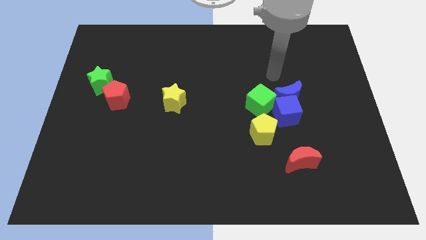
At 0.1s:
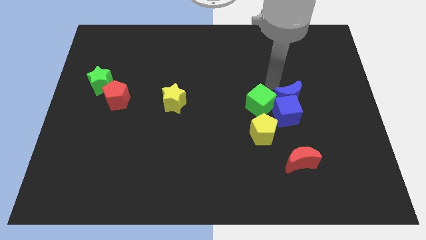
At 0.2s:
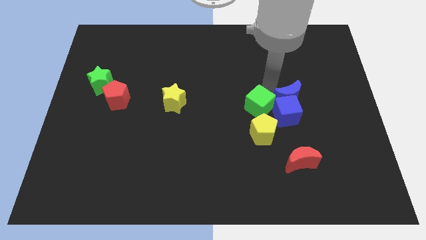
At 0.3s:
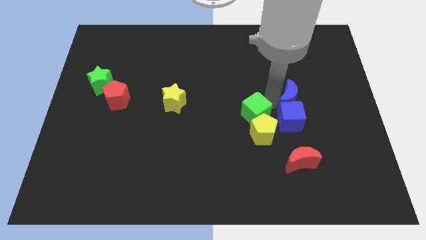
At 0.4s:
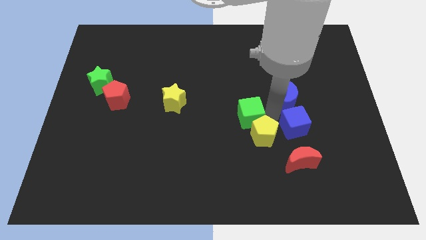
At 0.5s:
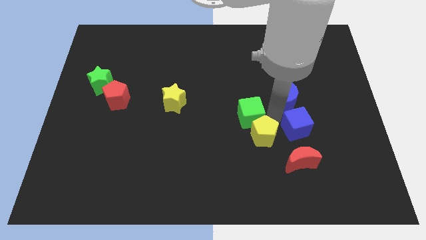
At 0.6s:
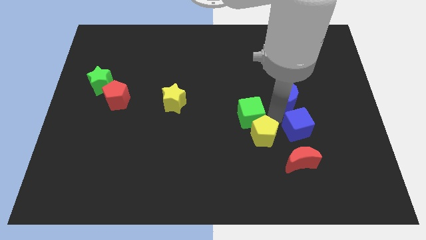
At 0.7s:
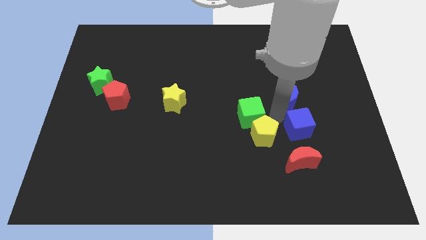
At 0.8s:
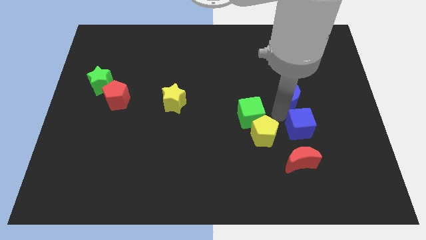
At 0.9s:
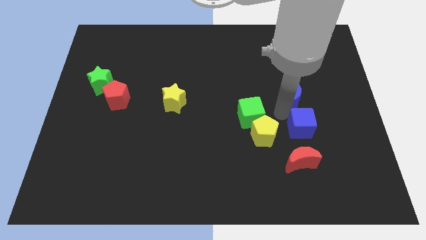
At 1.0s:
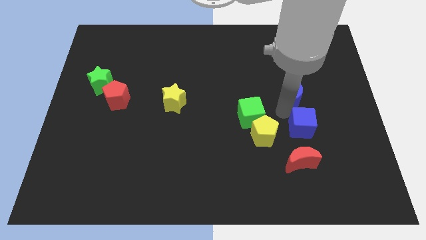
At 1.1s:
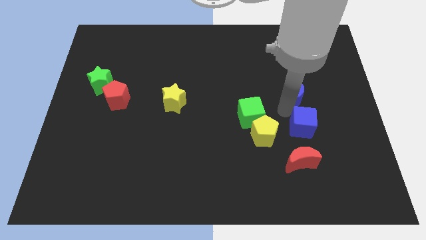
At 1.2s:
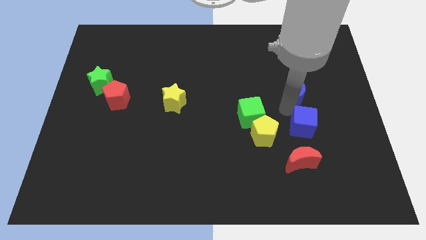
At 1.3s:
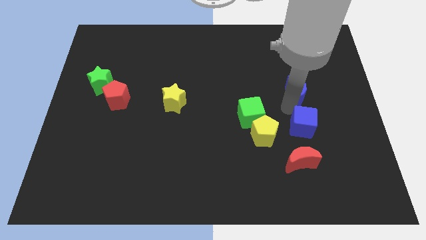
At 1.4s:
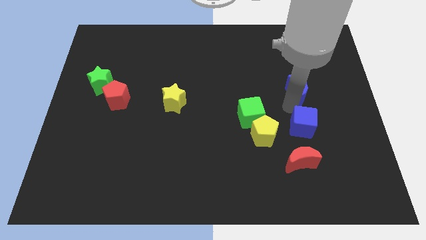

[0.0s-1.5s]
pull the blue moon apart from the blue cube and green cube

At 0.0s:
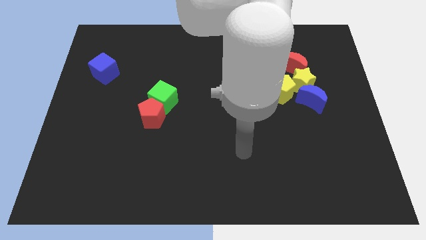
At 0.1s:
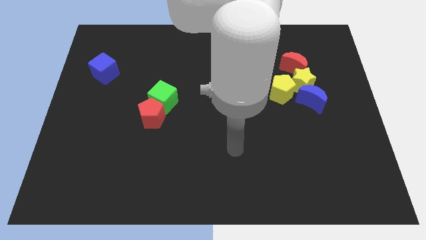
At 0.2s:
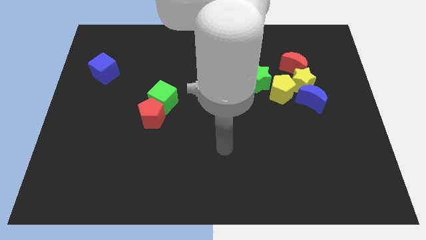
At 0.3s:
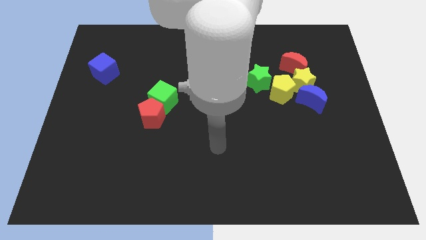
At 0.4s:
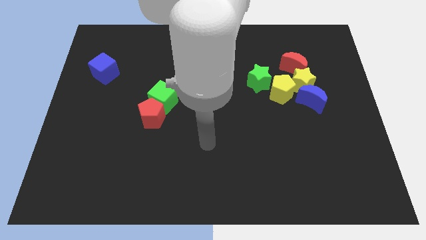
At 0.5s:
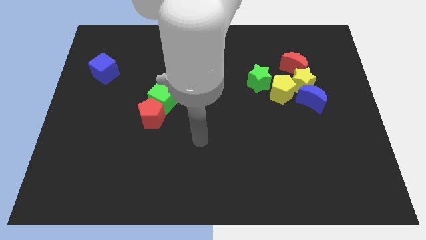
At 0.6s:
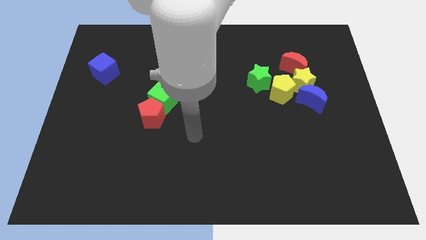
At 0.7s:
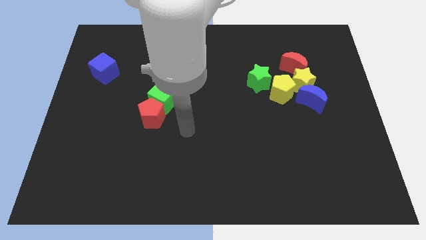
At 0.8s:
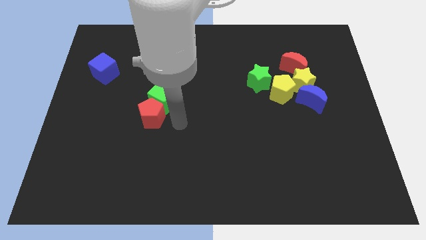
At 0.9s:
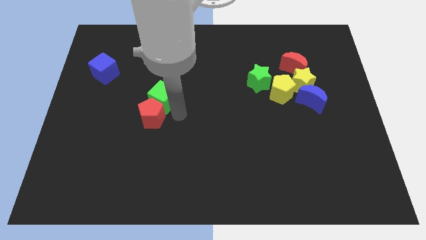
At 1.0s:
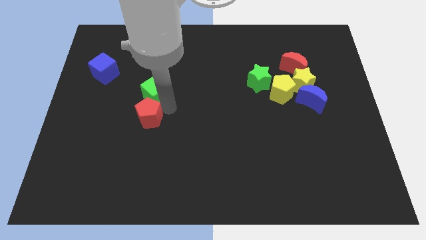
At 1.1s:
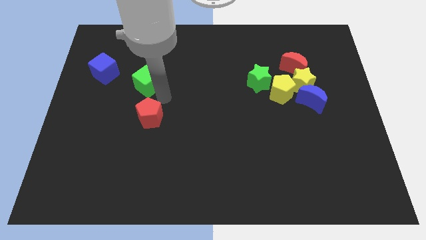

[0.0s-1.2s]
pull the red pentagon apart from the green cube

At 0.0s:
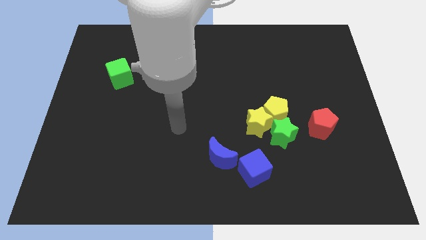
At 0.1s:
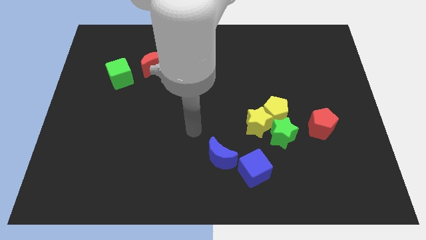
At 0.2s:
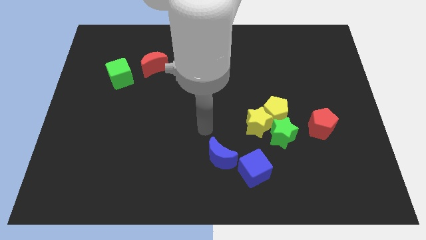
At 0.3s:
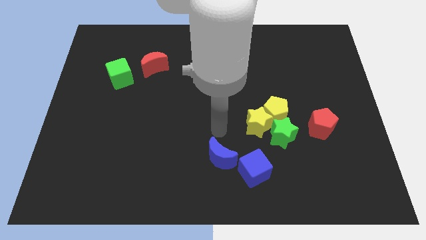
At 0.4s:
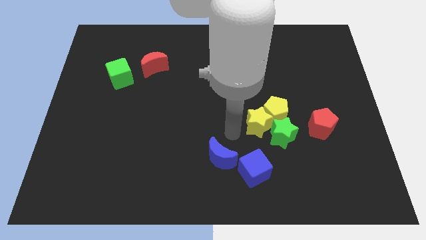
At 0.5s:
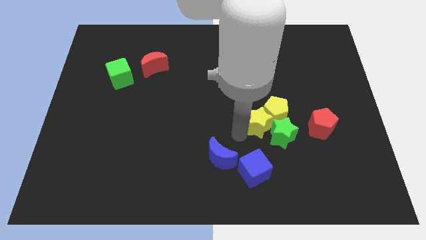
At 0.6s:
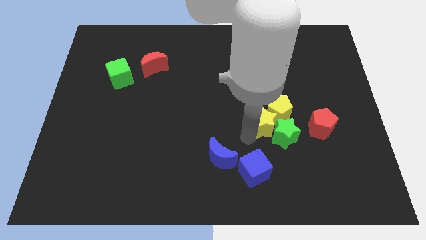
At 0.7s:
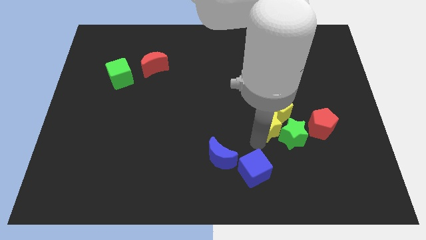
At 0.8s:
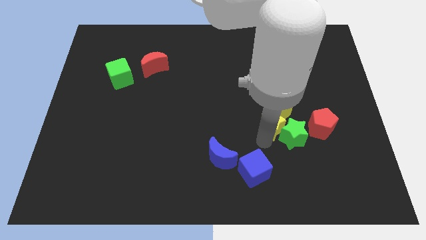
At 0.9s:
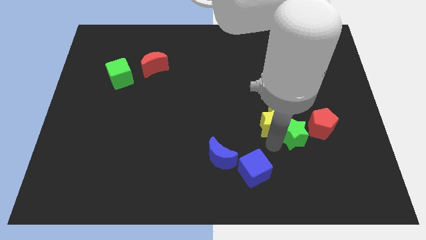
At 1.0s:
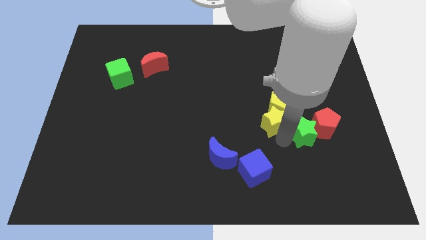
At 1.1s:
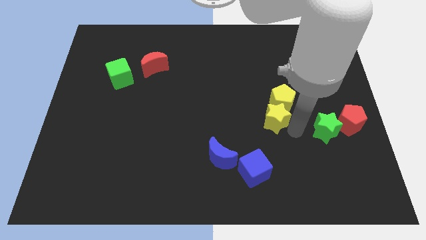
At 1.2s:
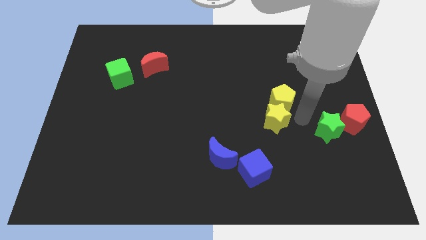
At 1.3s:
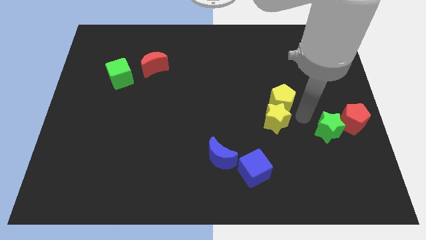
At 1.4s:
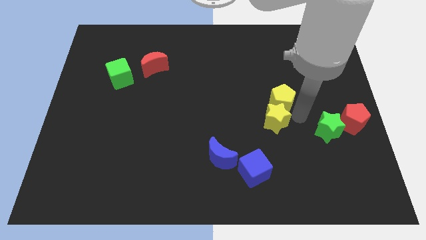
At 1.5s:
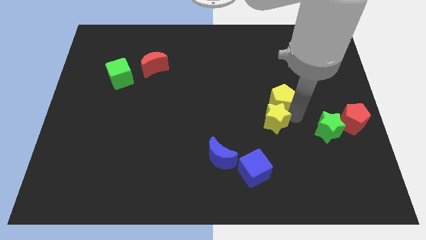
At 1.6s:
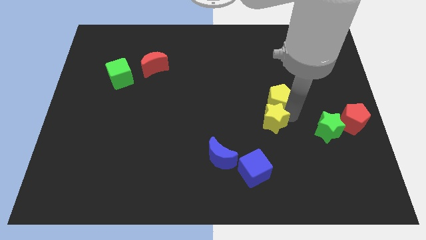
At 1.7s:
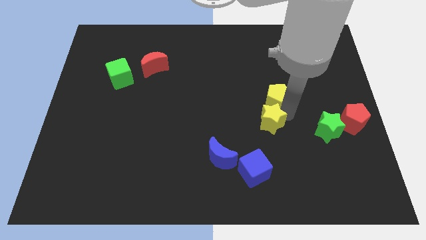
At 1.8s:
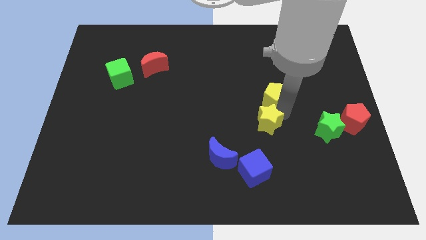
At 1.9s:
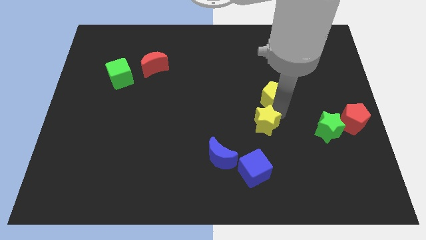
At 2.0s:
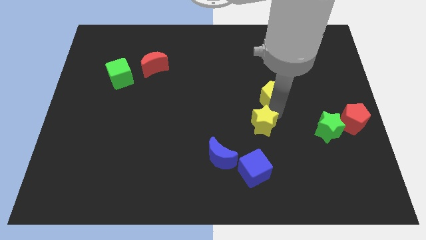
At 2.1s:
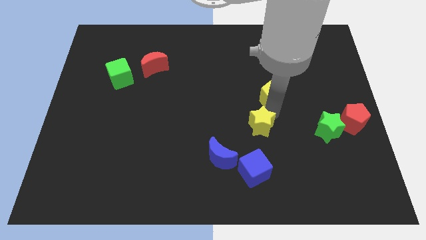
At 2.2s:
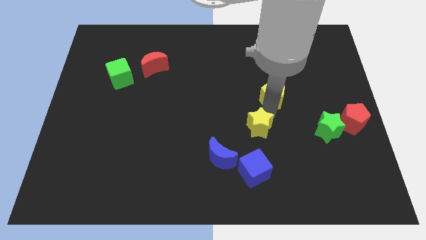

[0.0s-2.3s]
pull the yellow star apart from the yellow pentagon and green star

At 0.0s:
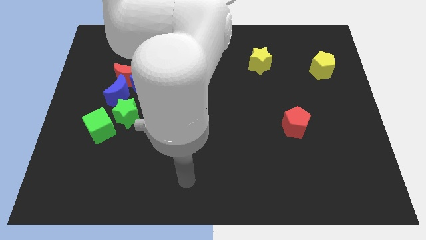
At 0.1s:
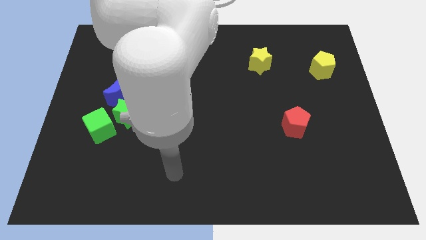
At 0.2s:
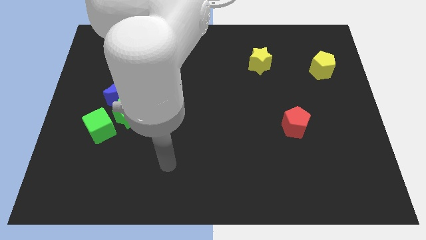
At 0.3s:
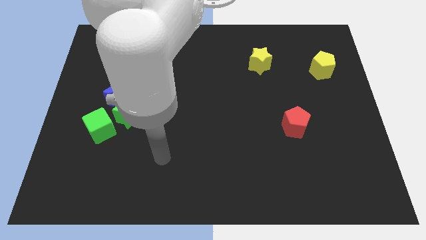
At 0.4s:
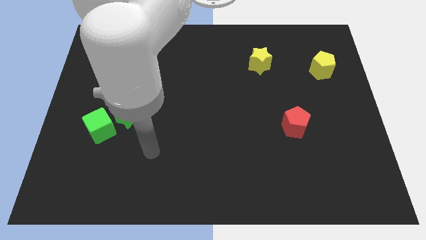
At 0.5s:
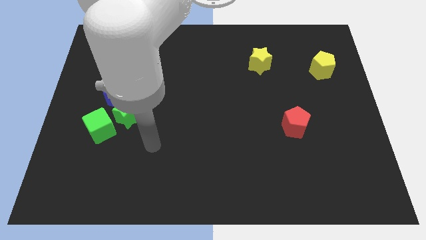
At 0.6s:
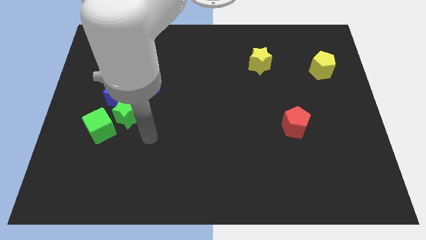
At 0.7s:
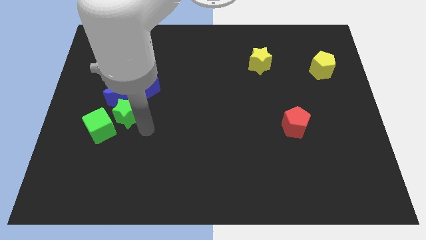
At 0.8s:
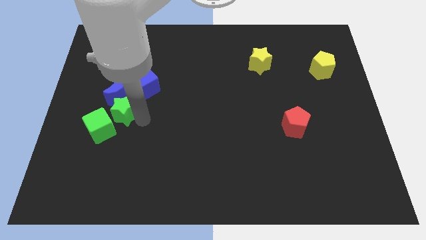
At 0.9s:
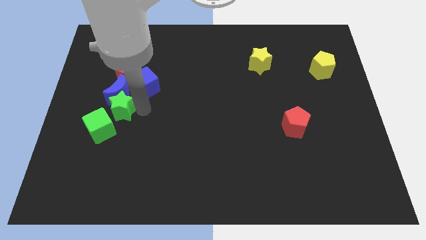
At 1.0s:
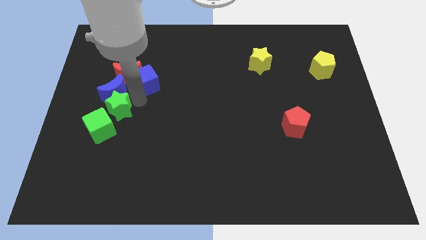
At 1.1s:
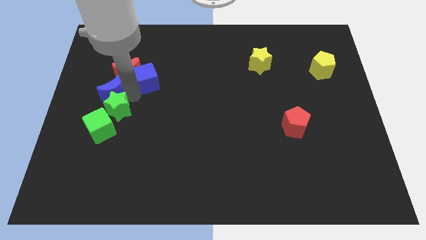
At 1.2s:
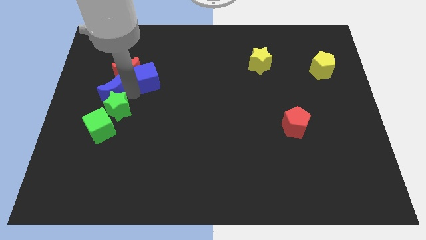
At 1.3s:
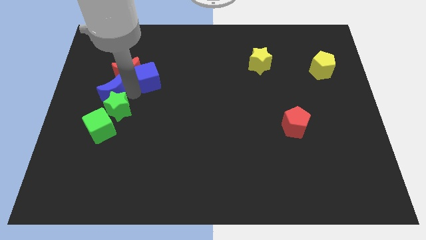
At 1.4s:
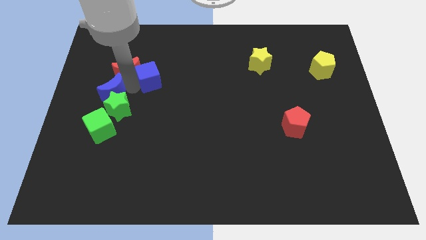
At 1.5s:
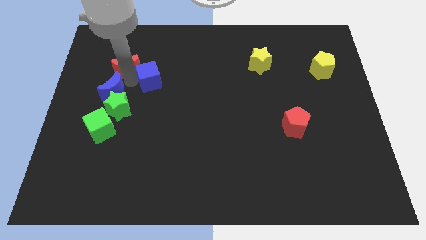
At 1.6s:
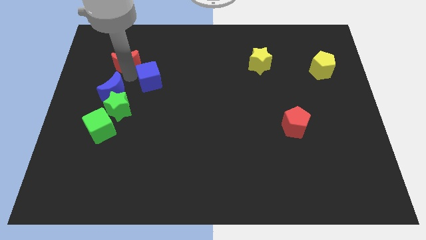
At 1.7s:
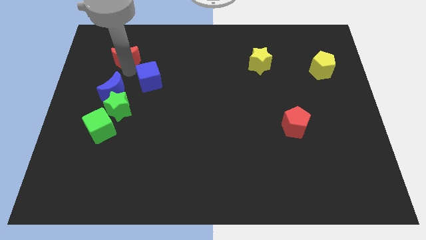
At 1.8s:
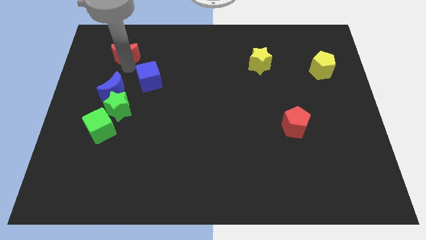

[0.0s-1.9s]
move the red moon away from the blue cube and blue moon

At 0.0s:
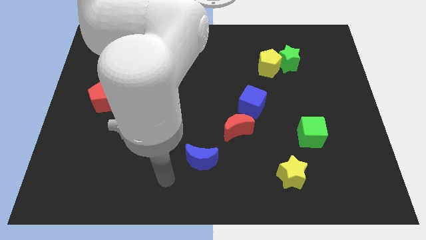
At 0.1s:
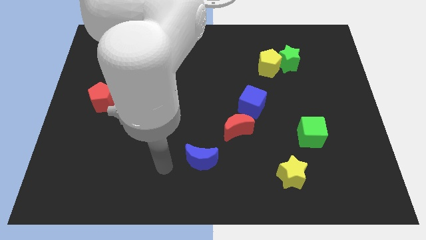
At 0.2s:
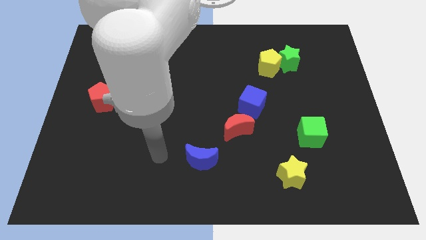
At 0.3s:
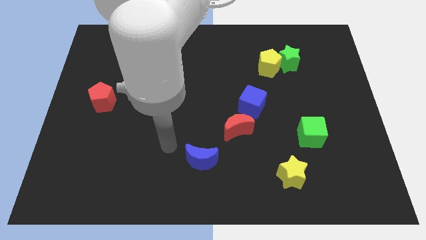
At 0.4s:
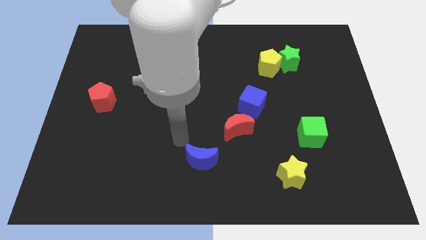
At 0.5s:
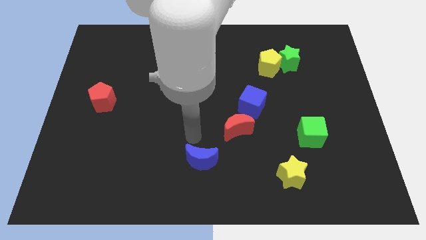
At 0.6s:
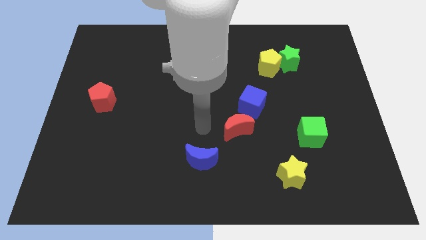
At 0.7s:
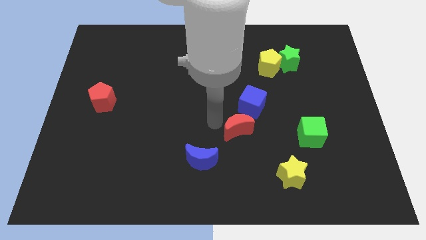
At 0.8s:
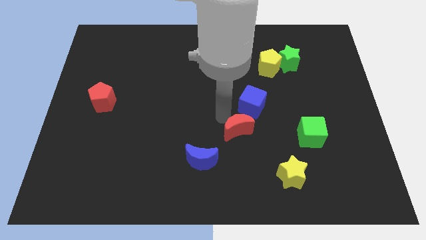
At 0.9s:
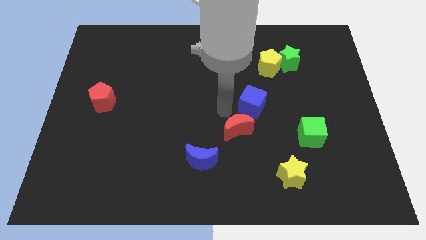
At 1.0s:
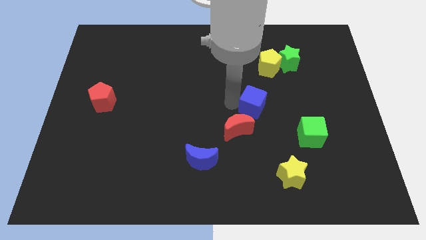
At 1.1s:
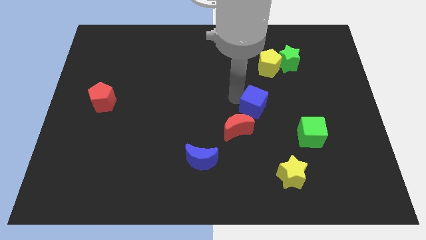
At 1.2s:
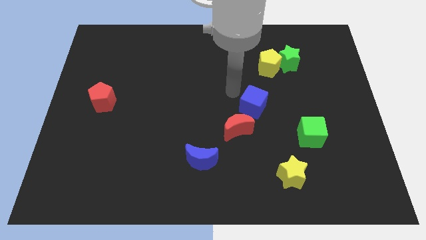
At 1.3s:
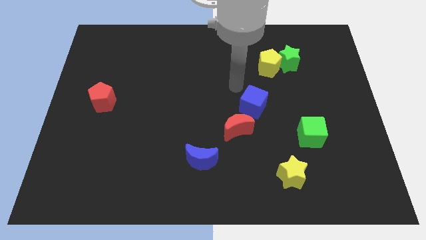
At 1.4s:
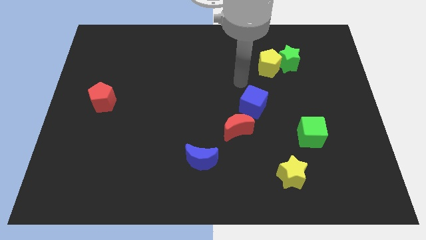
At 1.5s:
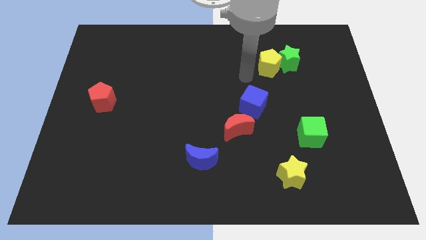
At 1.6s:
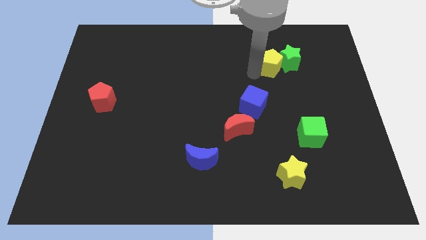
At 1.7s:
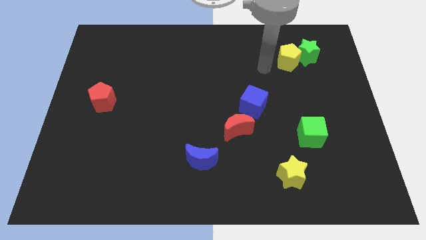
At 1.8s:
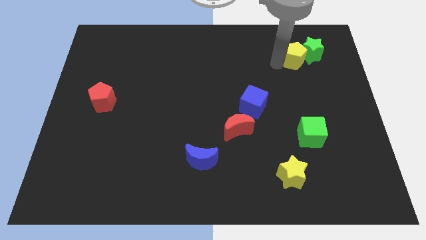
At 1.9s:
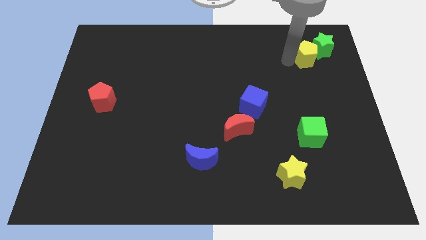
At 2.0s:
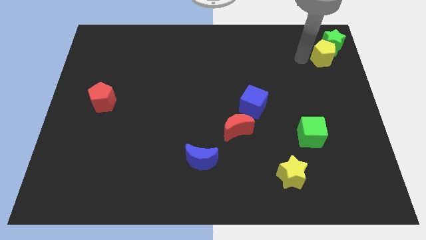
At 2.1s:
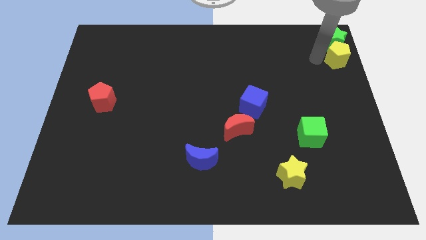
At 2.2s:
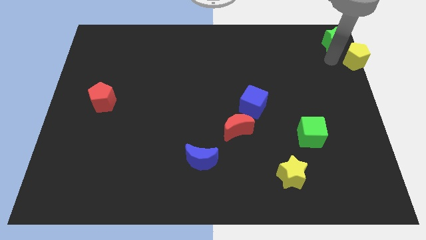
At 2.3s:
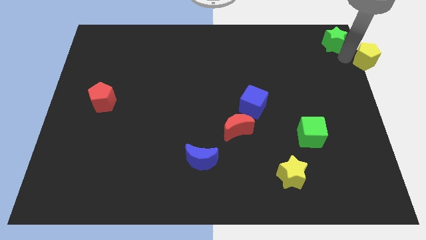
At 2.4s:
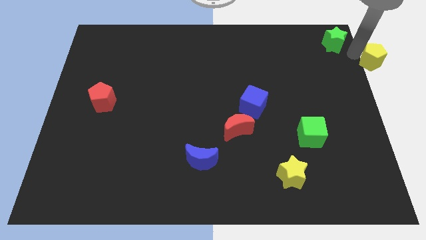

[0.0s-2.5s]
separate the green star from the yellow pentagon
